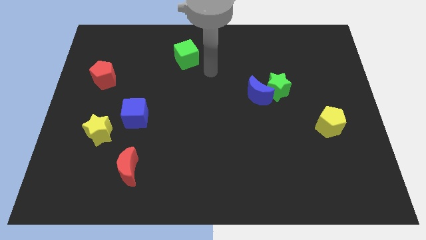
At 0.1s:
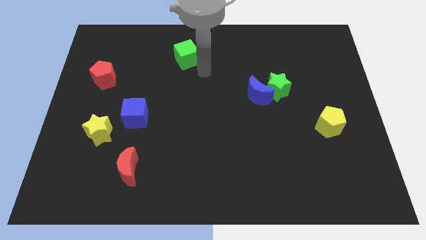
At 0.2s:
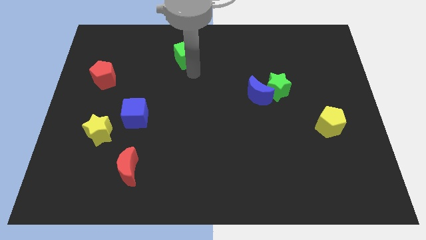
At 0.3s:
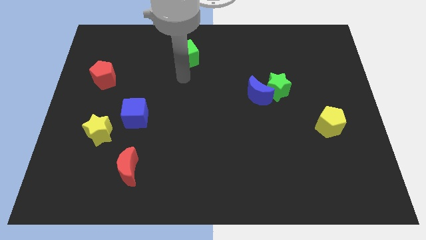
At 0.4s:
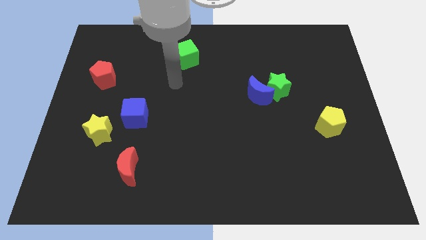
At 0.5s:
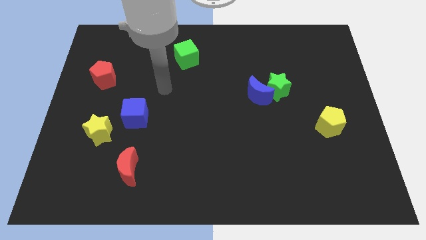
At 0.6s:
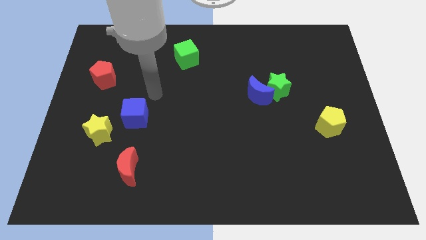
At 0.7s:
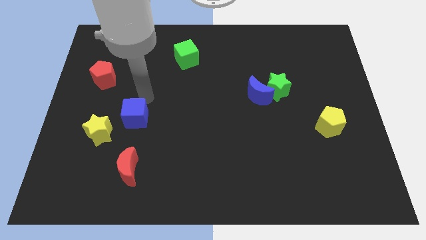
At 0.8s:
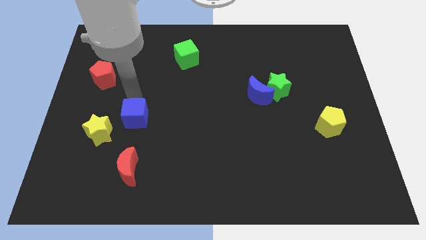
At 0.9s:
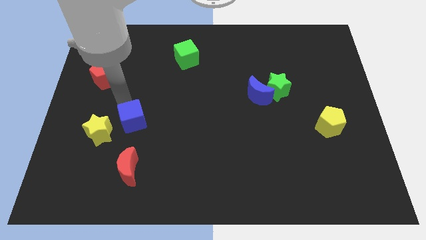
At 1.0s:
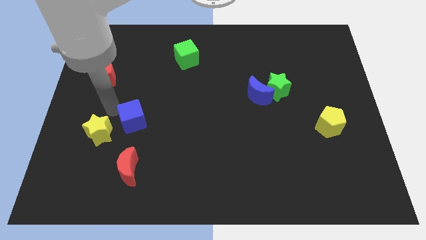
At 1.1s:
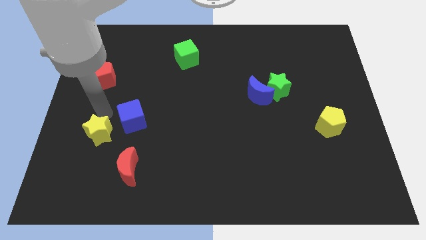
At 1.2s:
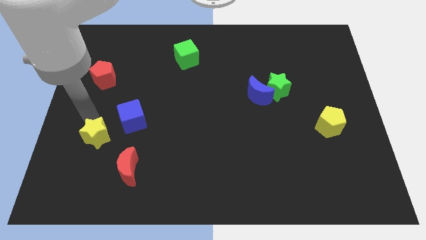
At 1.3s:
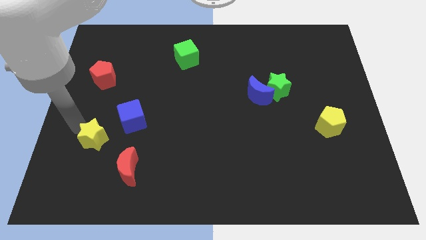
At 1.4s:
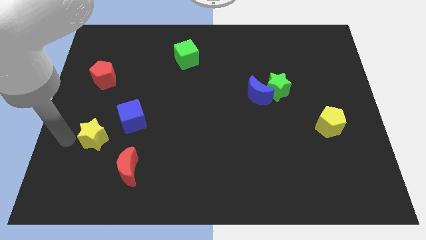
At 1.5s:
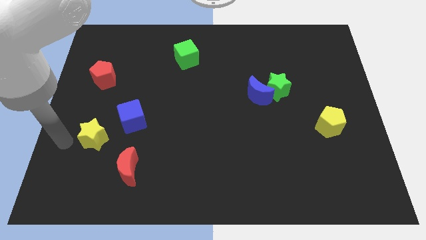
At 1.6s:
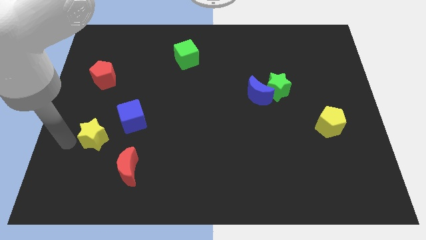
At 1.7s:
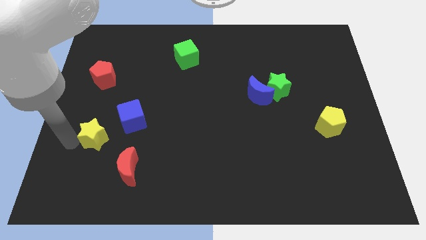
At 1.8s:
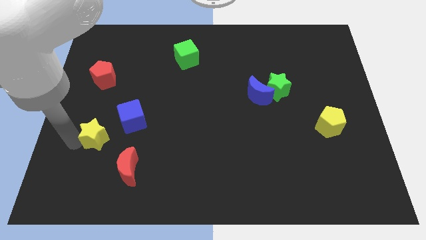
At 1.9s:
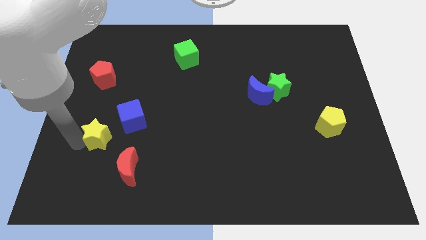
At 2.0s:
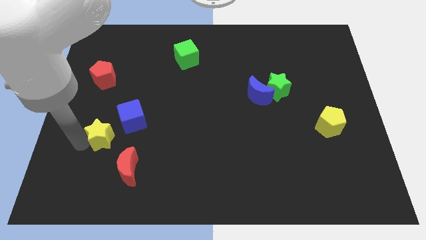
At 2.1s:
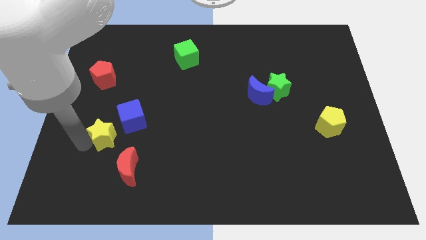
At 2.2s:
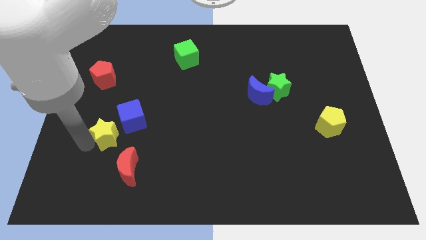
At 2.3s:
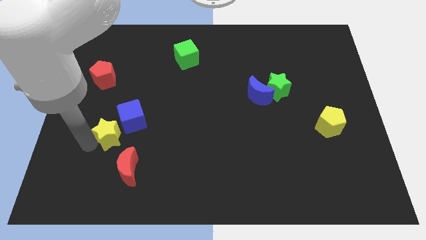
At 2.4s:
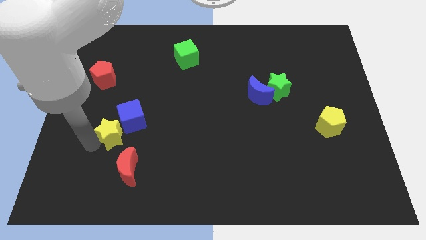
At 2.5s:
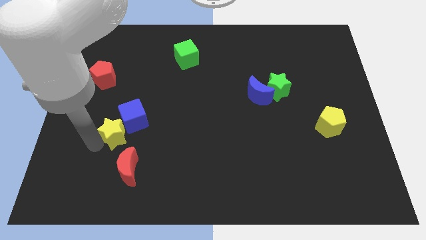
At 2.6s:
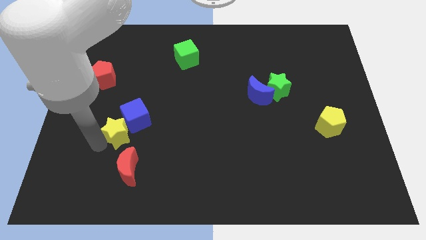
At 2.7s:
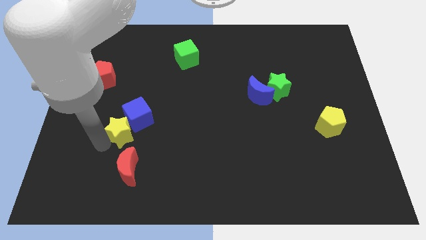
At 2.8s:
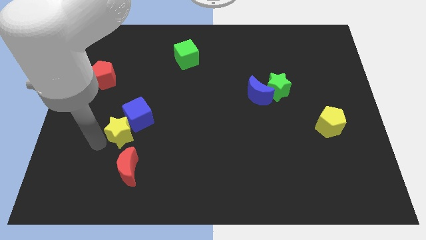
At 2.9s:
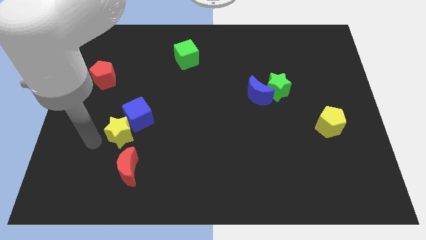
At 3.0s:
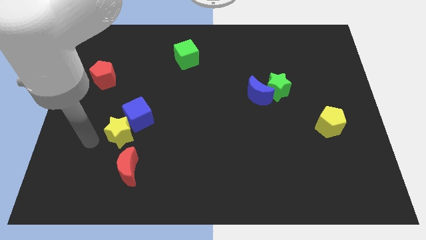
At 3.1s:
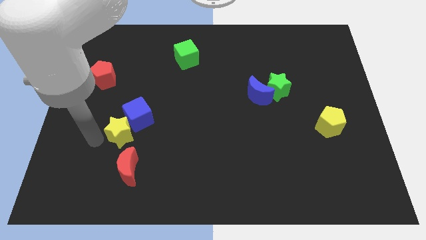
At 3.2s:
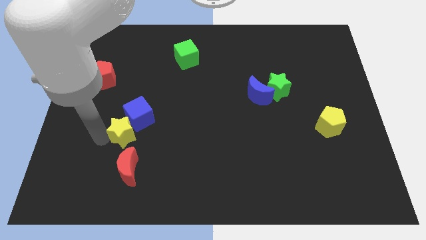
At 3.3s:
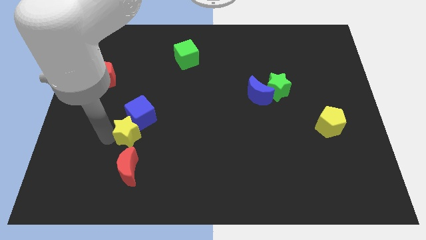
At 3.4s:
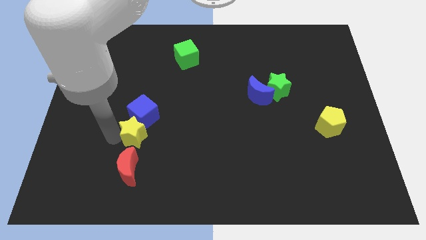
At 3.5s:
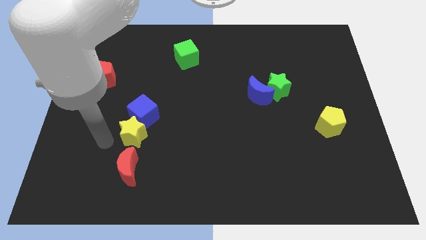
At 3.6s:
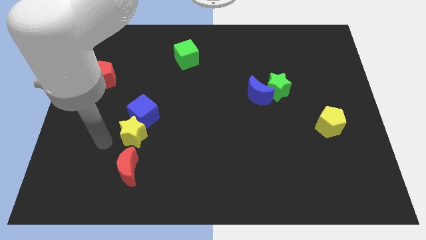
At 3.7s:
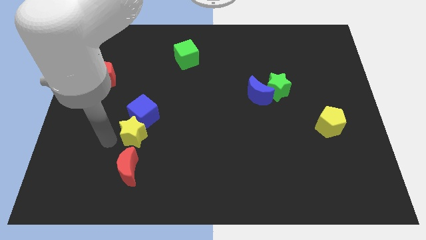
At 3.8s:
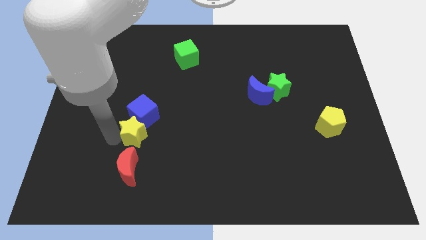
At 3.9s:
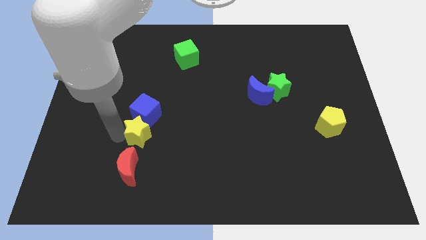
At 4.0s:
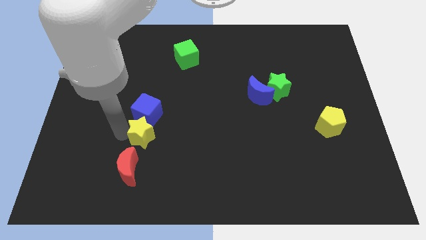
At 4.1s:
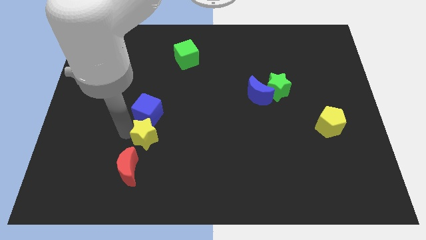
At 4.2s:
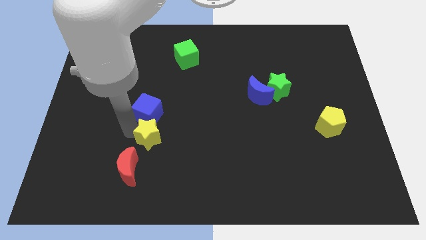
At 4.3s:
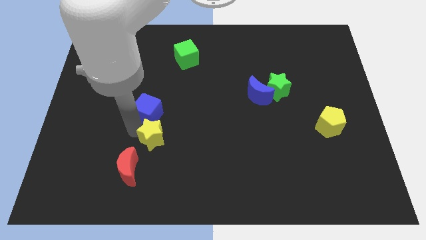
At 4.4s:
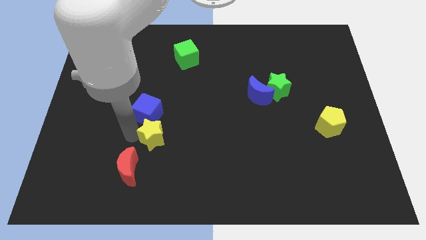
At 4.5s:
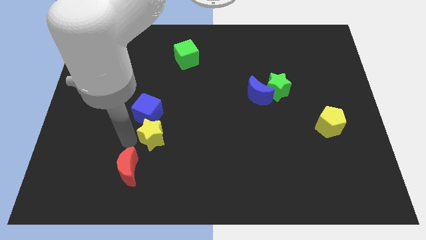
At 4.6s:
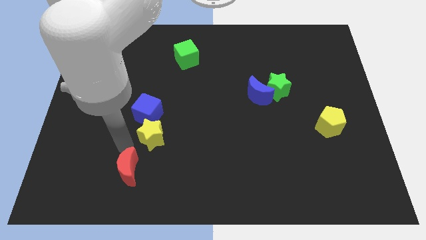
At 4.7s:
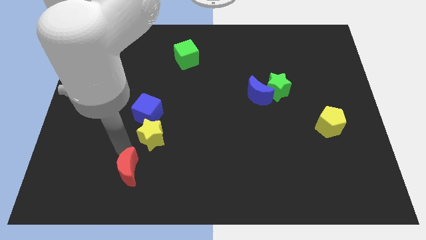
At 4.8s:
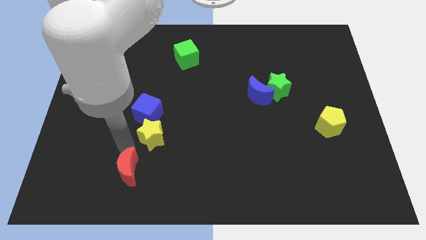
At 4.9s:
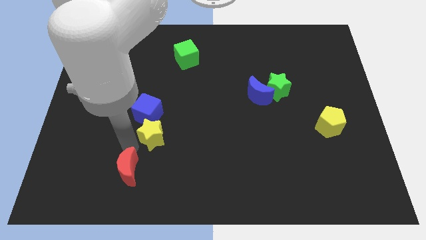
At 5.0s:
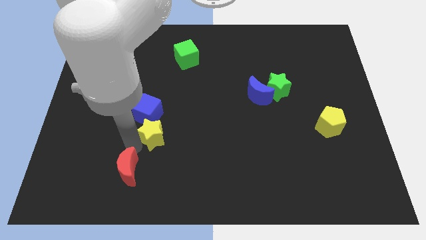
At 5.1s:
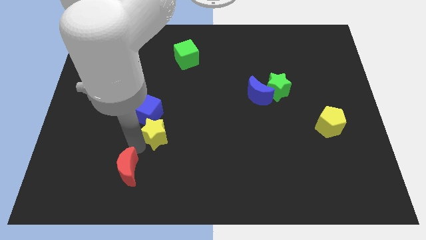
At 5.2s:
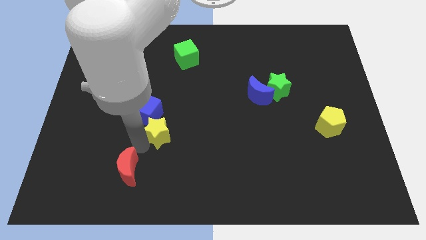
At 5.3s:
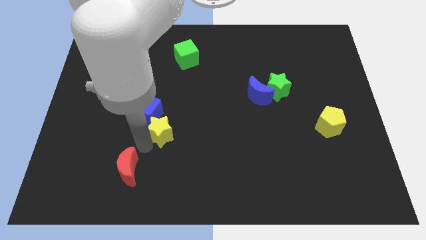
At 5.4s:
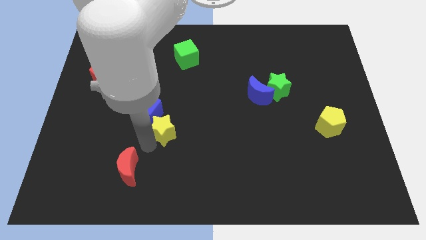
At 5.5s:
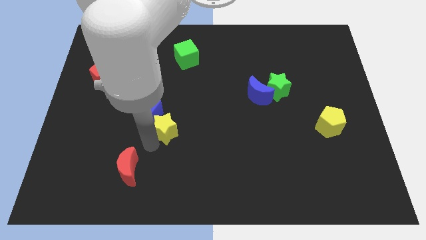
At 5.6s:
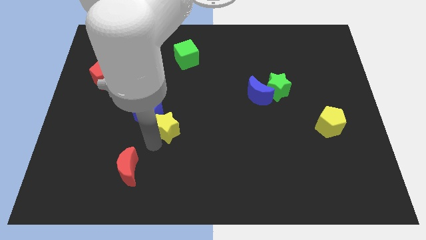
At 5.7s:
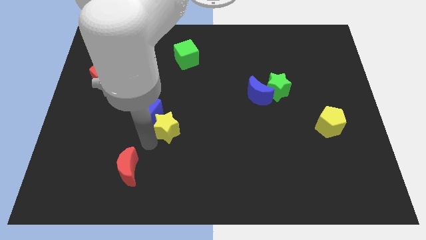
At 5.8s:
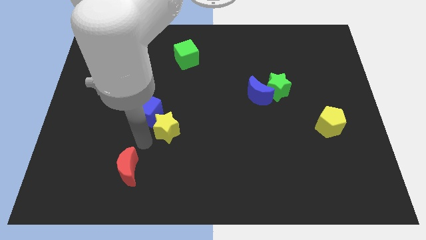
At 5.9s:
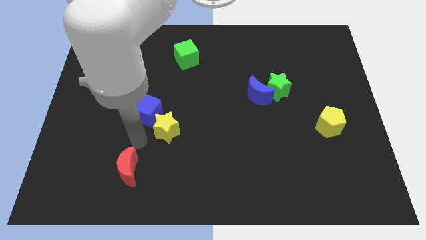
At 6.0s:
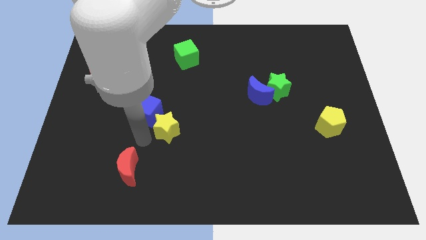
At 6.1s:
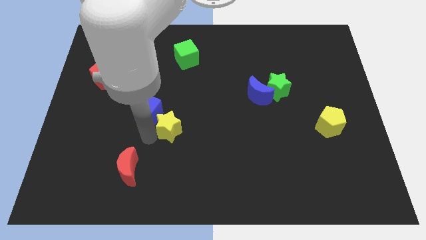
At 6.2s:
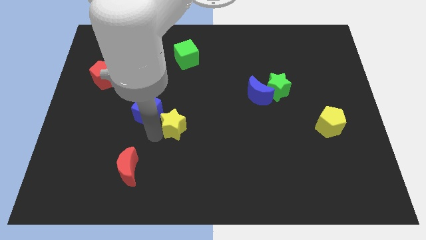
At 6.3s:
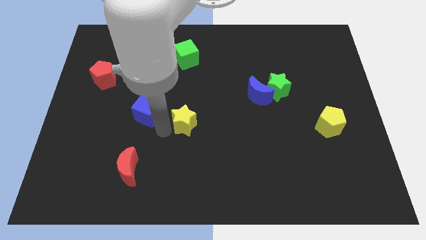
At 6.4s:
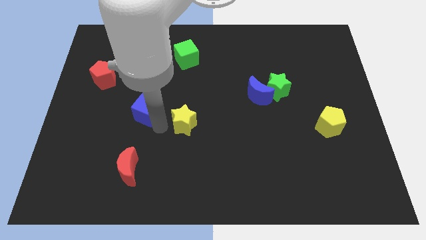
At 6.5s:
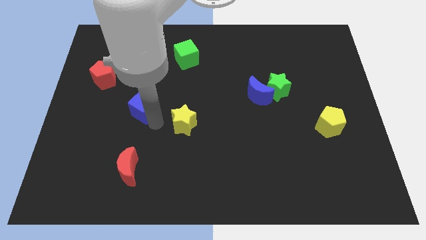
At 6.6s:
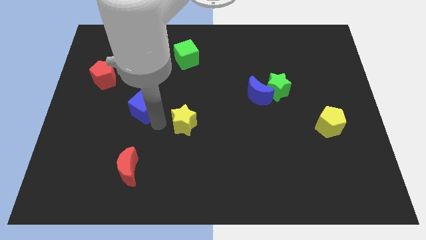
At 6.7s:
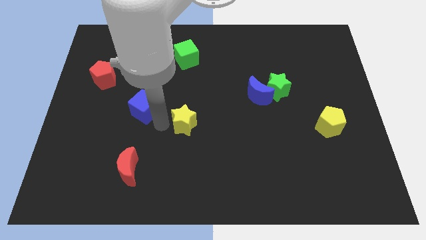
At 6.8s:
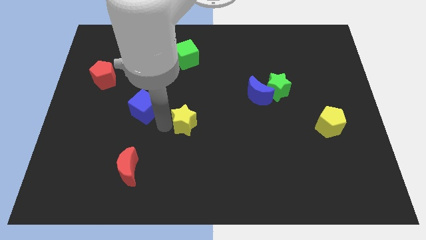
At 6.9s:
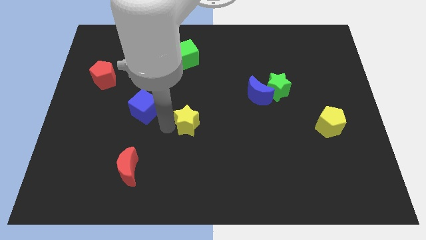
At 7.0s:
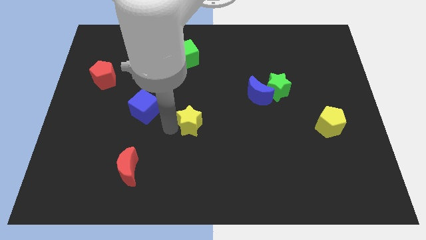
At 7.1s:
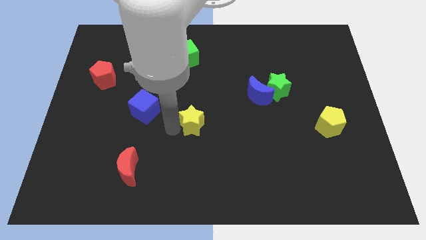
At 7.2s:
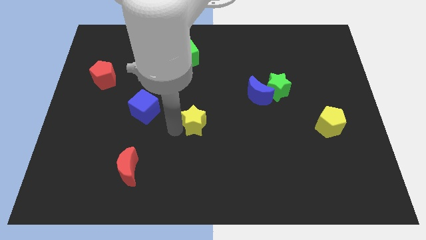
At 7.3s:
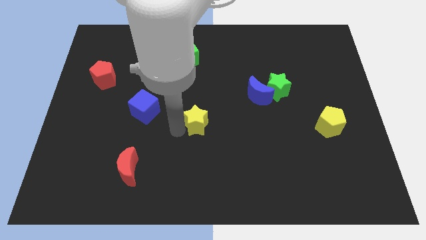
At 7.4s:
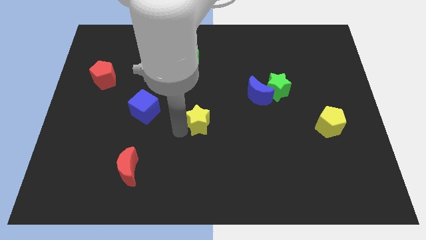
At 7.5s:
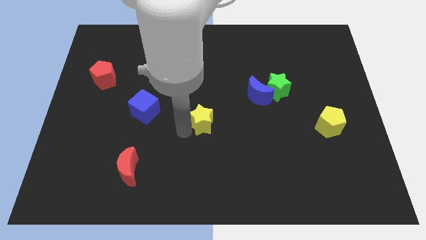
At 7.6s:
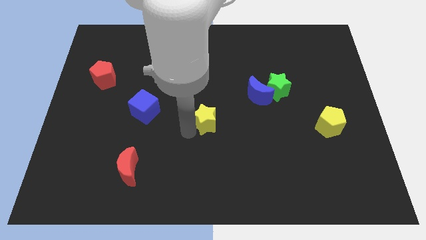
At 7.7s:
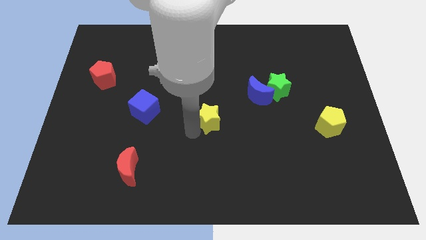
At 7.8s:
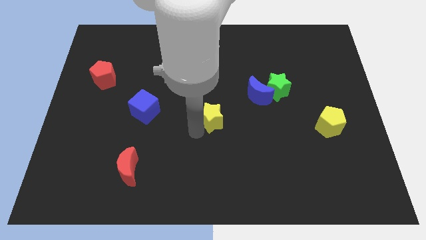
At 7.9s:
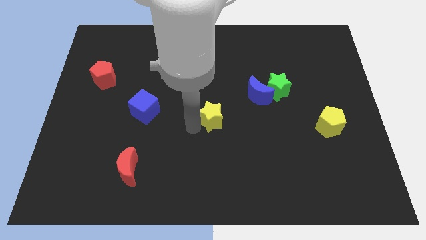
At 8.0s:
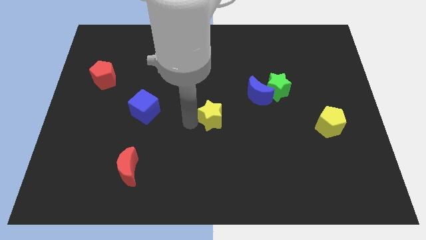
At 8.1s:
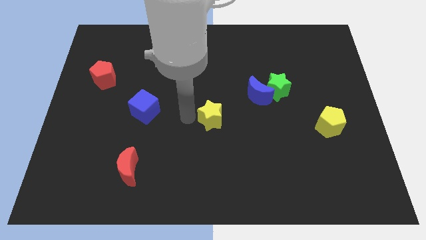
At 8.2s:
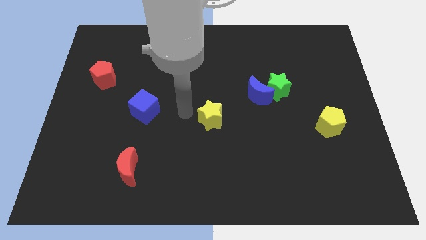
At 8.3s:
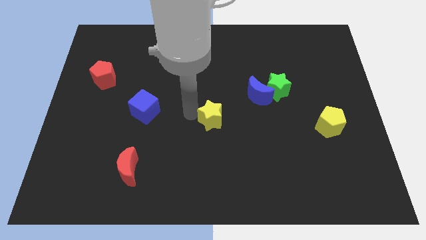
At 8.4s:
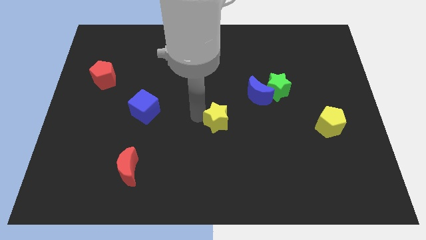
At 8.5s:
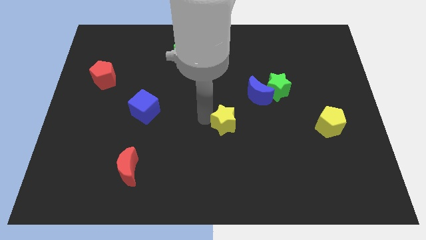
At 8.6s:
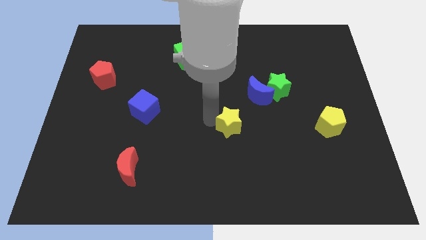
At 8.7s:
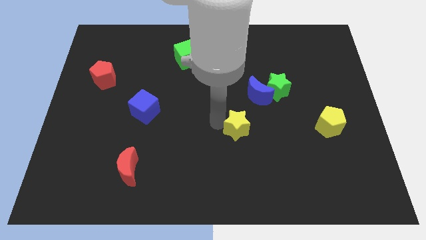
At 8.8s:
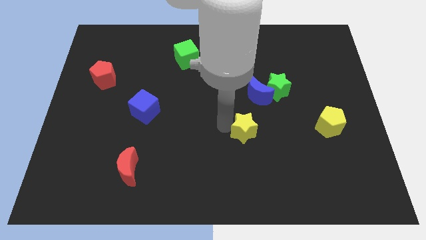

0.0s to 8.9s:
push the yellow star to the bottom of the blue moon
